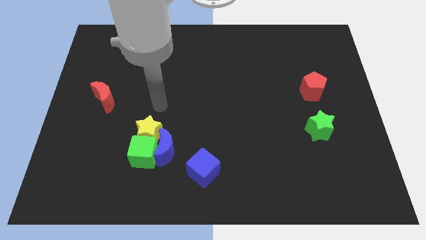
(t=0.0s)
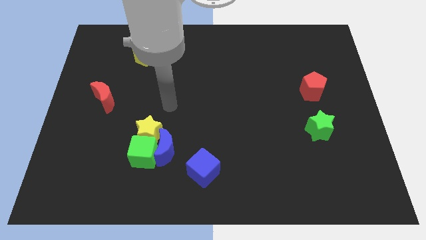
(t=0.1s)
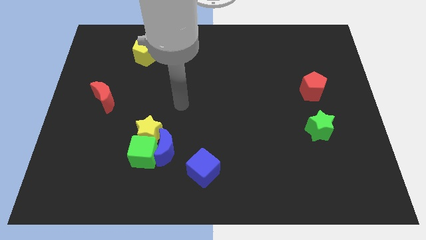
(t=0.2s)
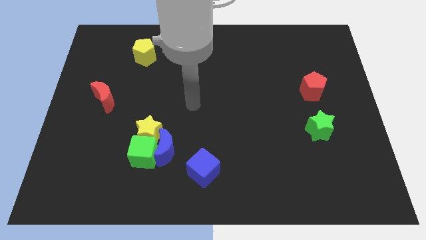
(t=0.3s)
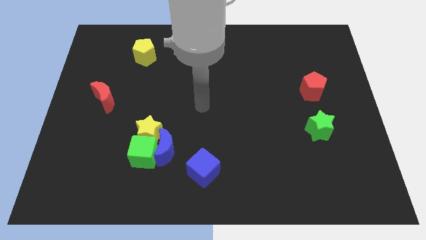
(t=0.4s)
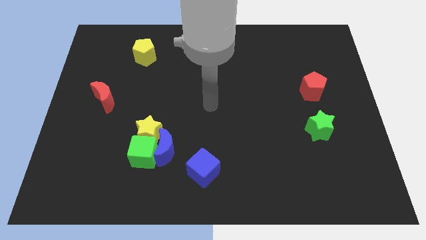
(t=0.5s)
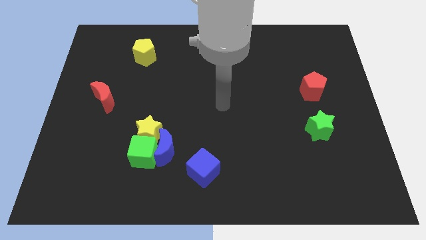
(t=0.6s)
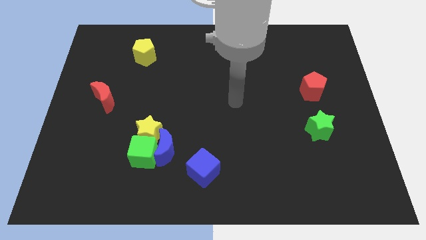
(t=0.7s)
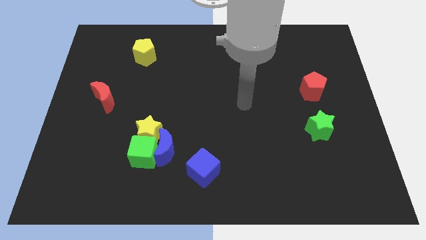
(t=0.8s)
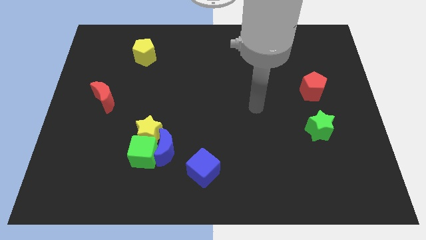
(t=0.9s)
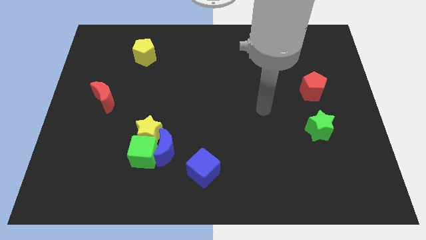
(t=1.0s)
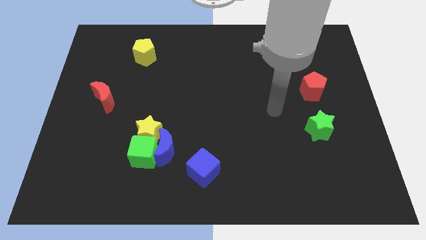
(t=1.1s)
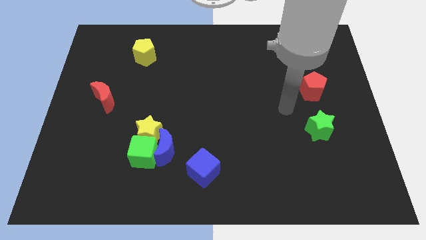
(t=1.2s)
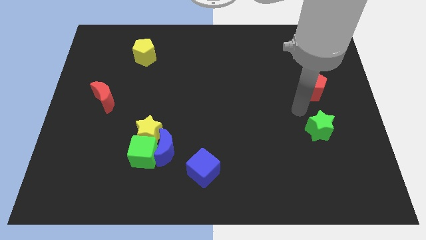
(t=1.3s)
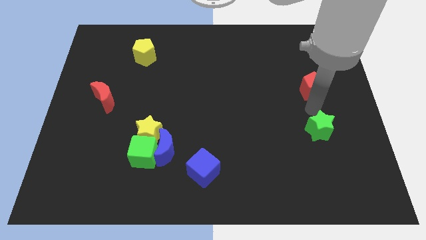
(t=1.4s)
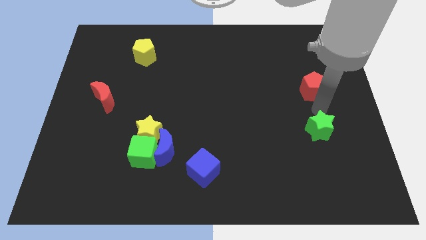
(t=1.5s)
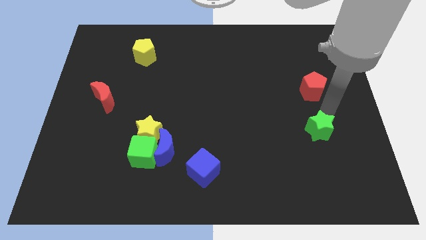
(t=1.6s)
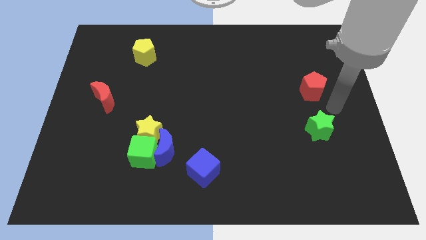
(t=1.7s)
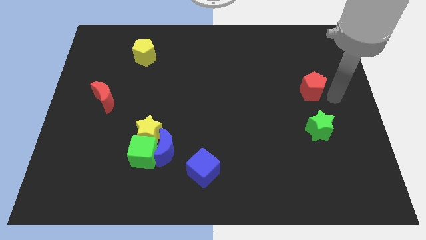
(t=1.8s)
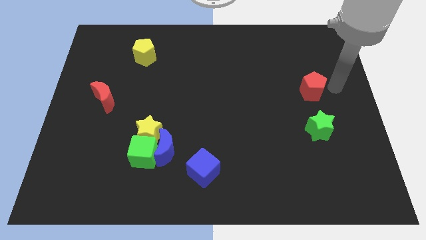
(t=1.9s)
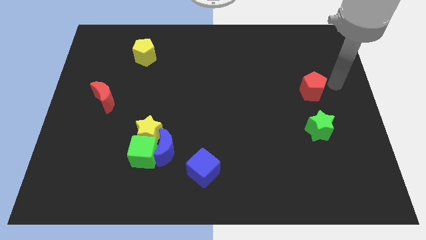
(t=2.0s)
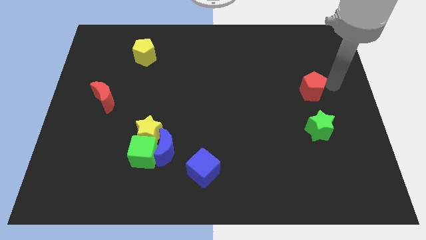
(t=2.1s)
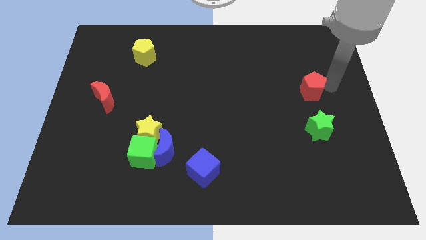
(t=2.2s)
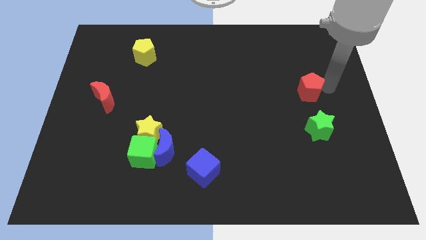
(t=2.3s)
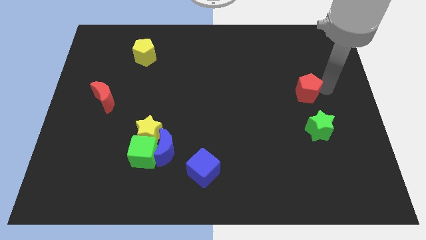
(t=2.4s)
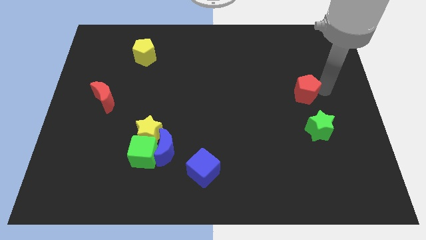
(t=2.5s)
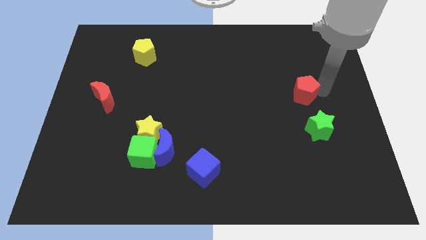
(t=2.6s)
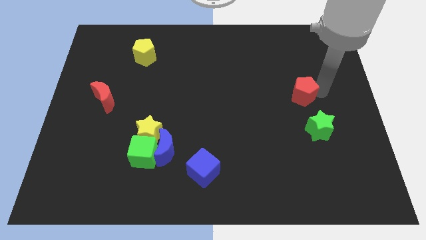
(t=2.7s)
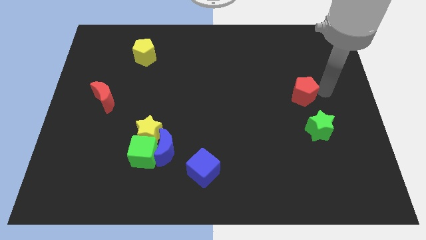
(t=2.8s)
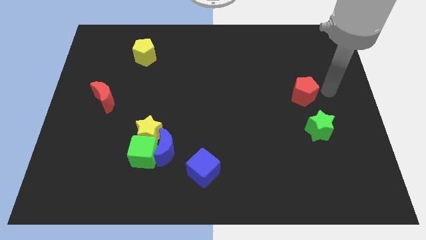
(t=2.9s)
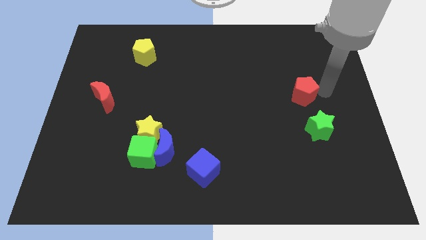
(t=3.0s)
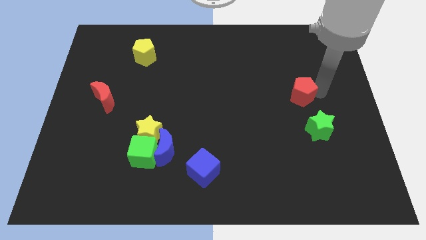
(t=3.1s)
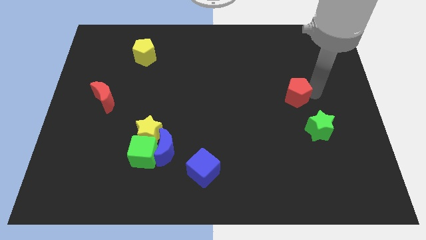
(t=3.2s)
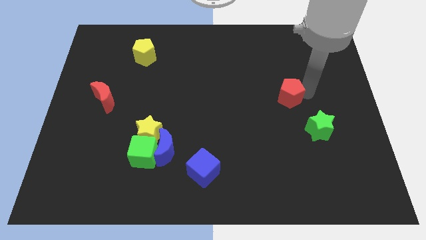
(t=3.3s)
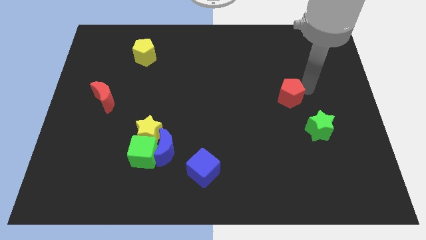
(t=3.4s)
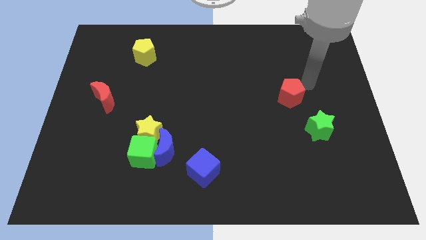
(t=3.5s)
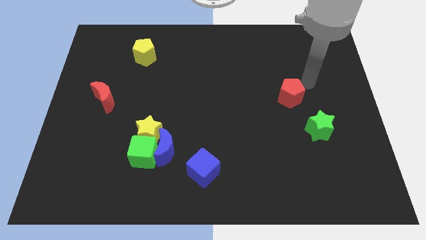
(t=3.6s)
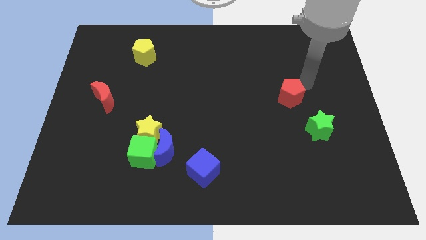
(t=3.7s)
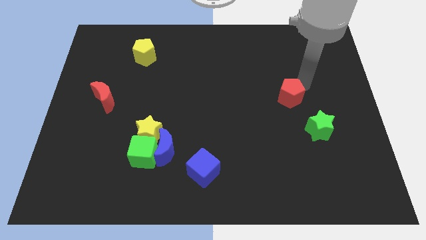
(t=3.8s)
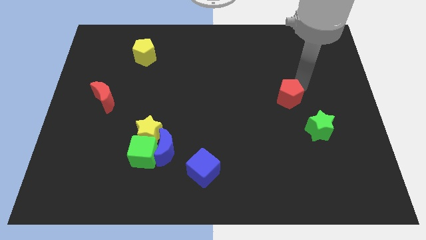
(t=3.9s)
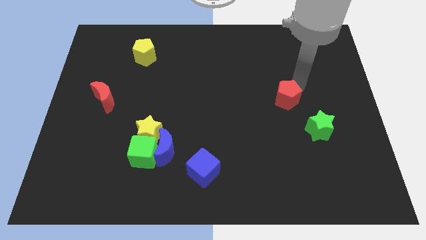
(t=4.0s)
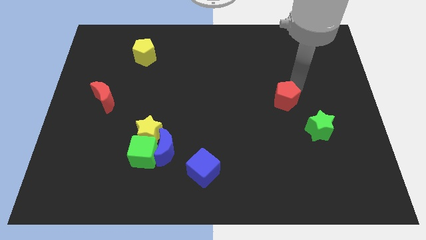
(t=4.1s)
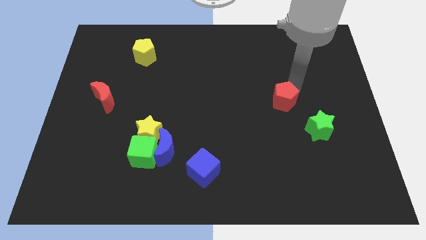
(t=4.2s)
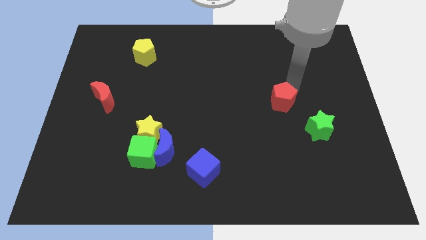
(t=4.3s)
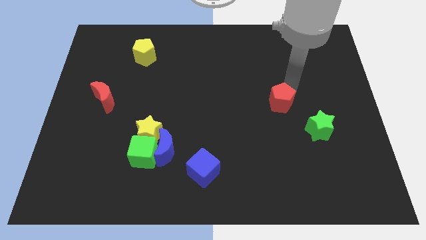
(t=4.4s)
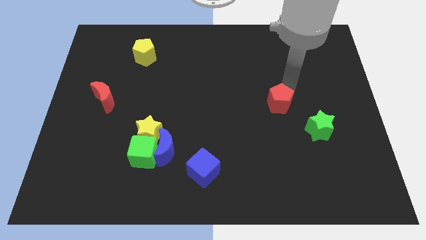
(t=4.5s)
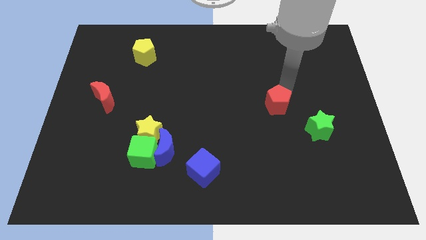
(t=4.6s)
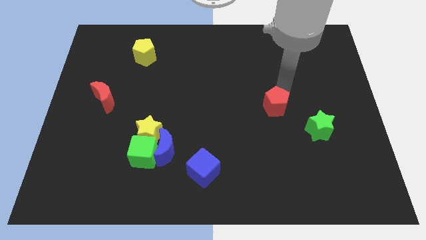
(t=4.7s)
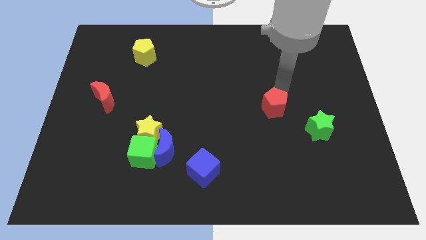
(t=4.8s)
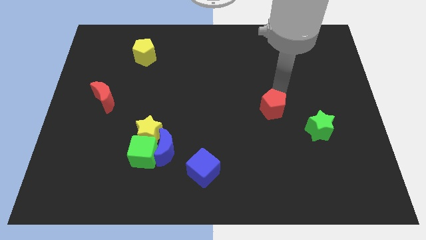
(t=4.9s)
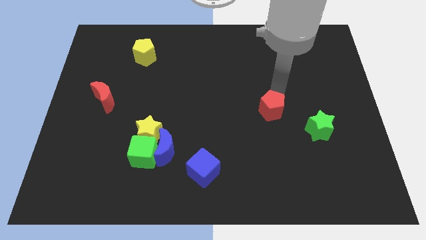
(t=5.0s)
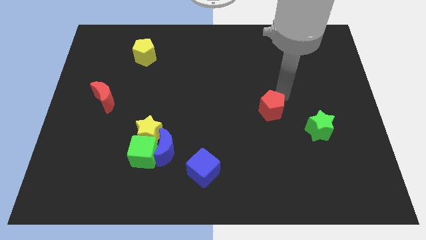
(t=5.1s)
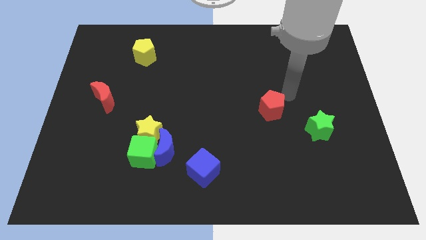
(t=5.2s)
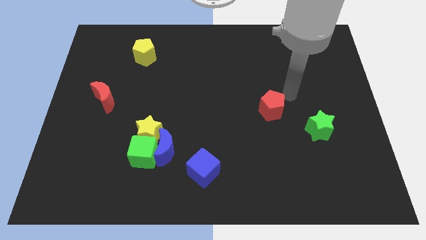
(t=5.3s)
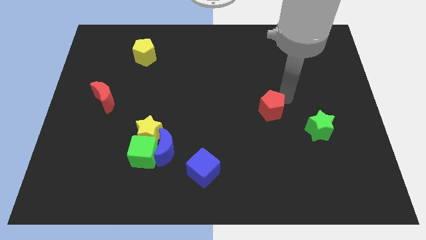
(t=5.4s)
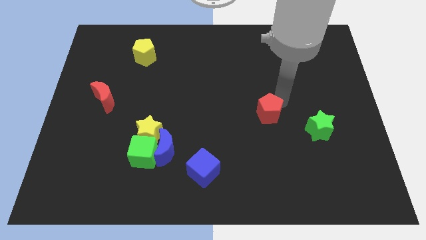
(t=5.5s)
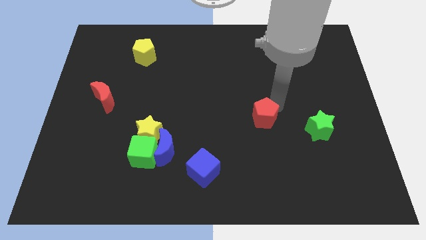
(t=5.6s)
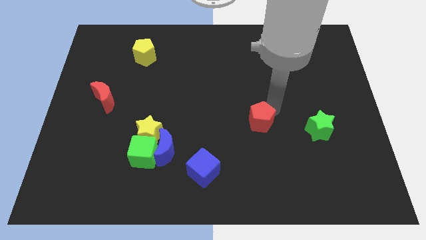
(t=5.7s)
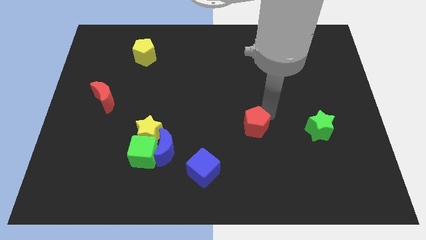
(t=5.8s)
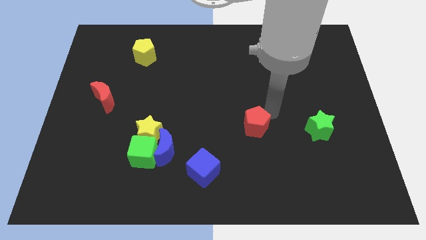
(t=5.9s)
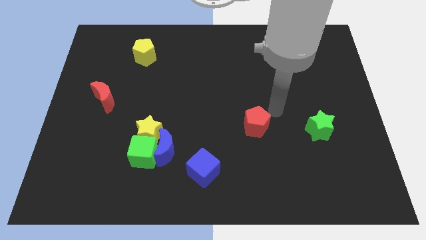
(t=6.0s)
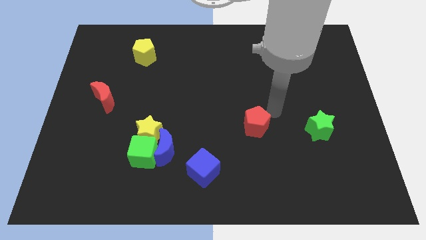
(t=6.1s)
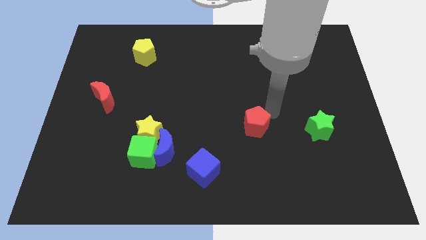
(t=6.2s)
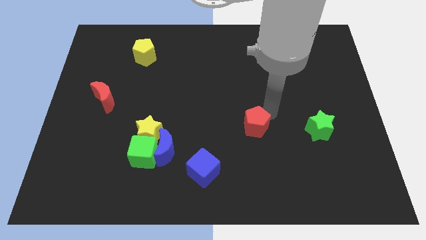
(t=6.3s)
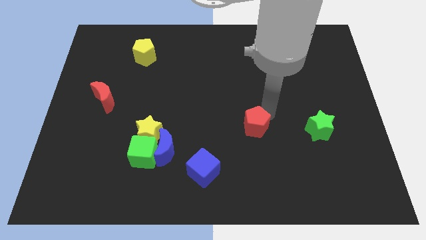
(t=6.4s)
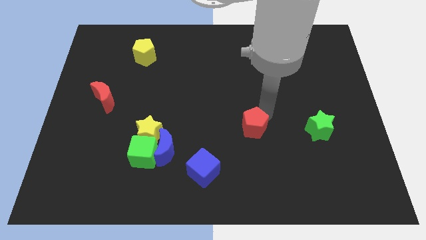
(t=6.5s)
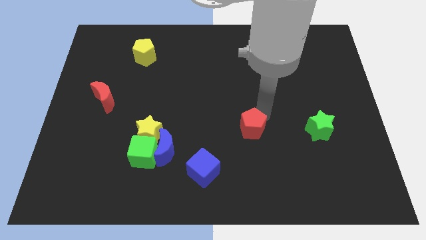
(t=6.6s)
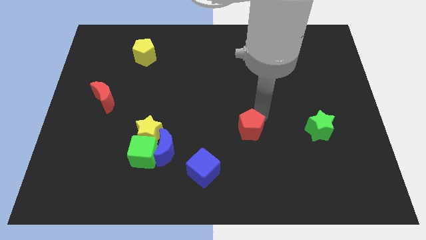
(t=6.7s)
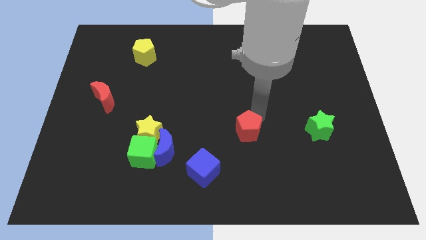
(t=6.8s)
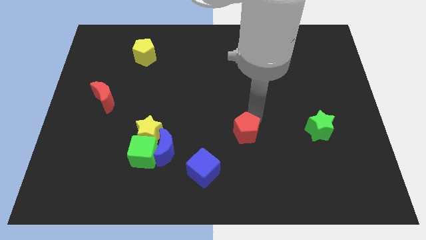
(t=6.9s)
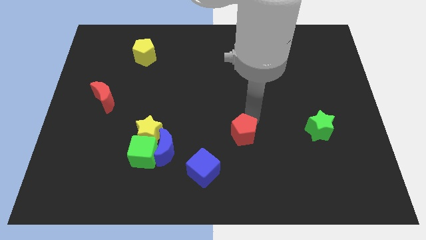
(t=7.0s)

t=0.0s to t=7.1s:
put the red pentagon to the top right side of the blue cube

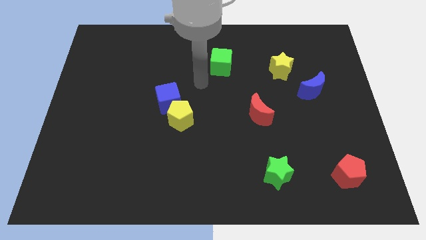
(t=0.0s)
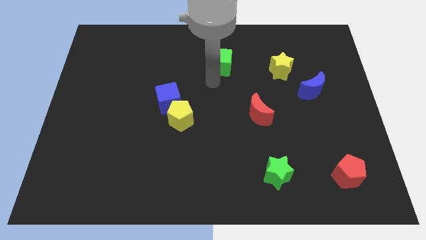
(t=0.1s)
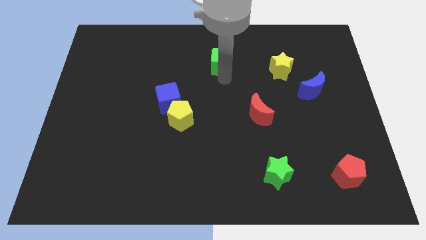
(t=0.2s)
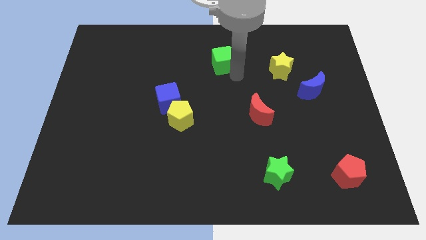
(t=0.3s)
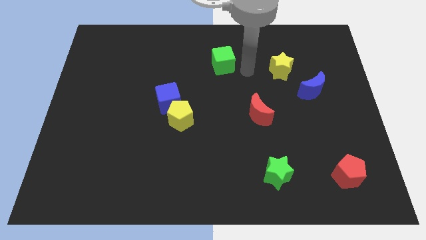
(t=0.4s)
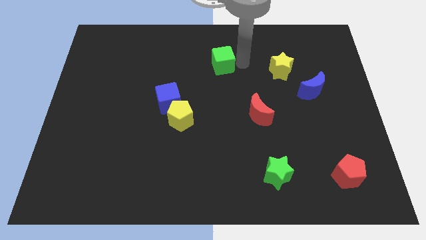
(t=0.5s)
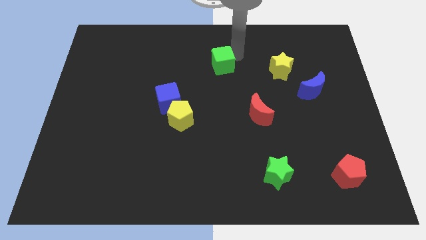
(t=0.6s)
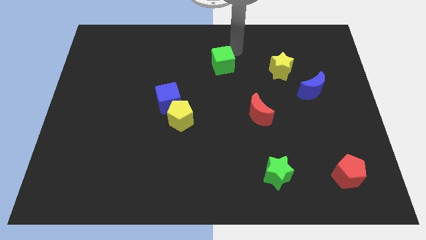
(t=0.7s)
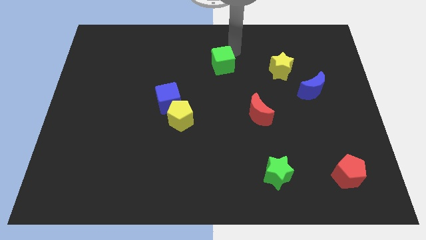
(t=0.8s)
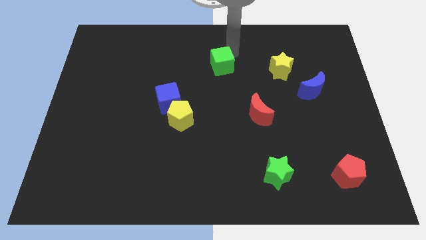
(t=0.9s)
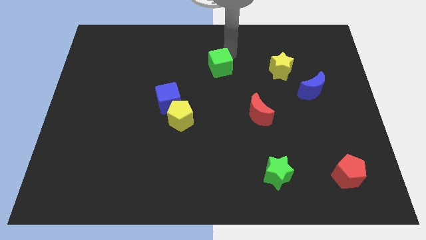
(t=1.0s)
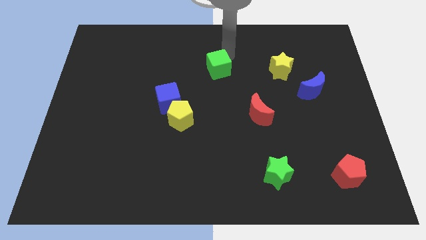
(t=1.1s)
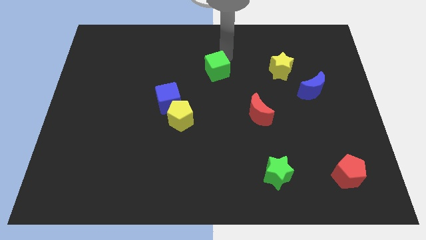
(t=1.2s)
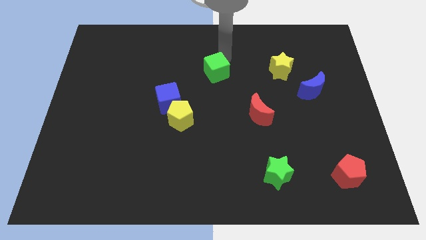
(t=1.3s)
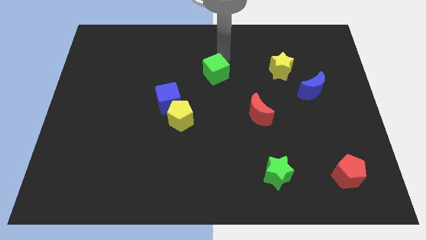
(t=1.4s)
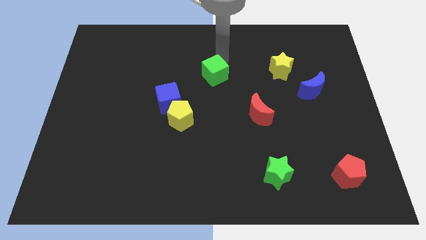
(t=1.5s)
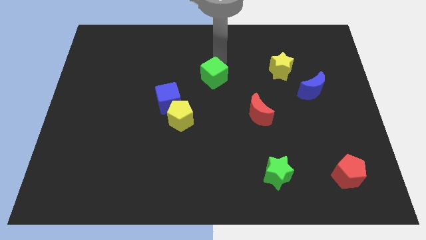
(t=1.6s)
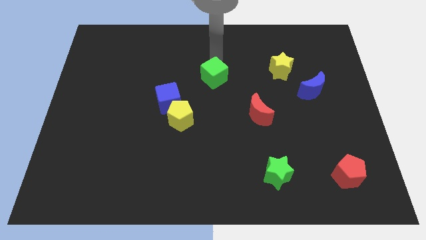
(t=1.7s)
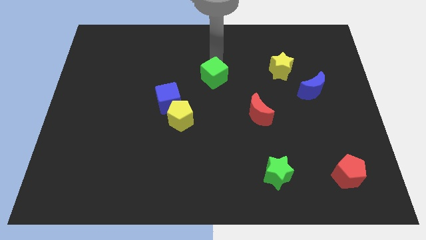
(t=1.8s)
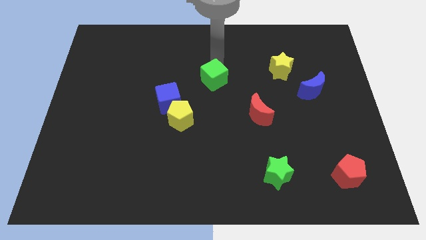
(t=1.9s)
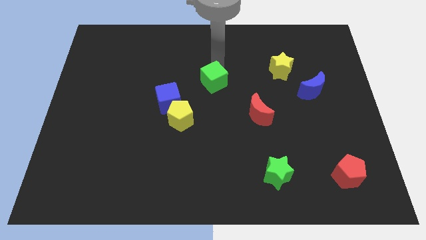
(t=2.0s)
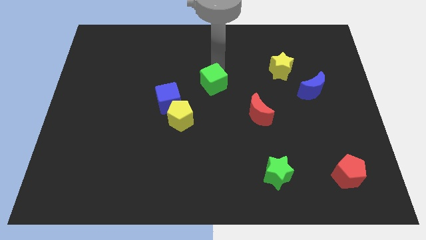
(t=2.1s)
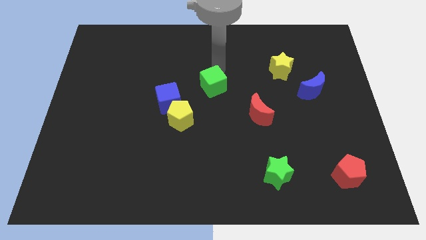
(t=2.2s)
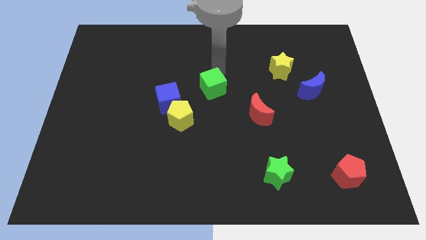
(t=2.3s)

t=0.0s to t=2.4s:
push the green cube to the right side of the blue cube
